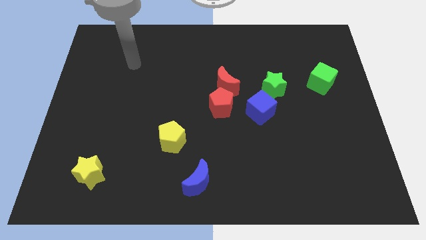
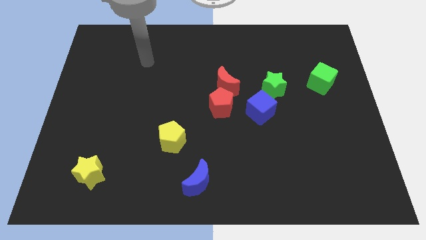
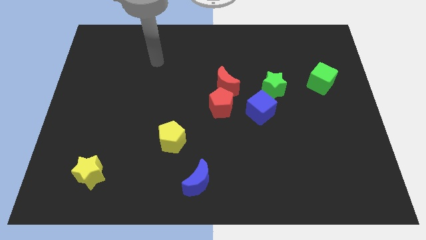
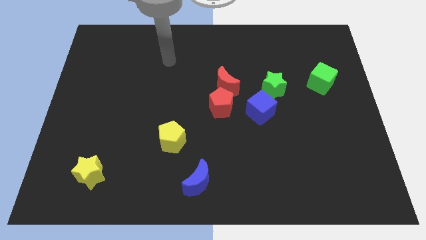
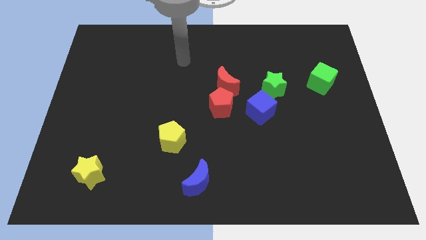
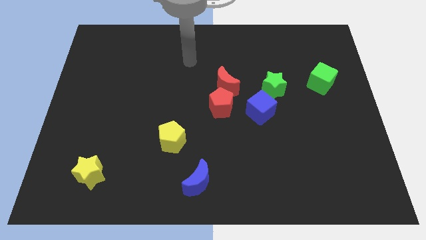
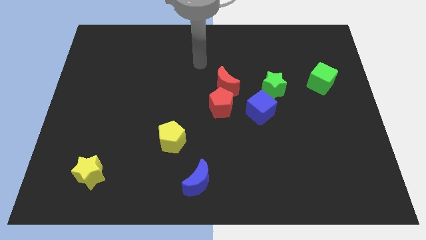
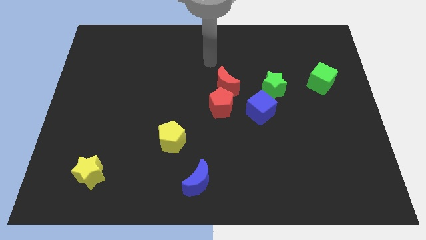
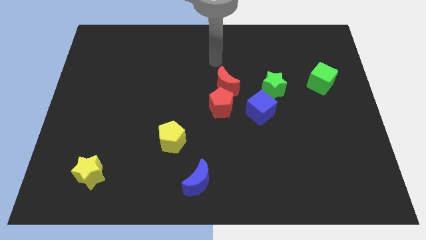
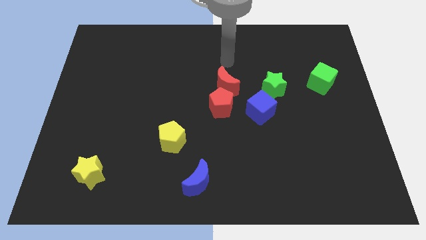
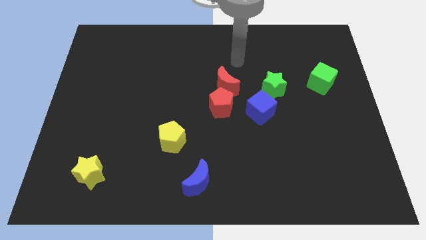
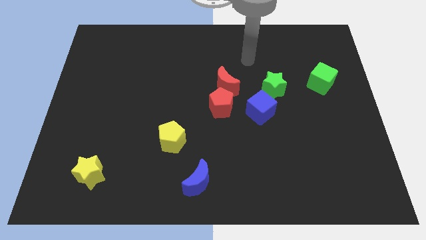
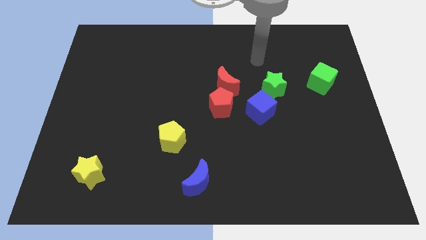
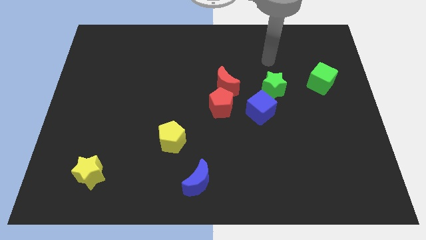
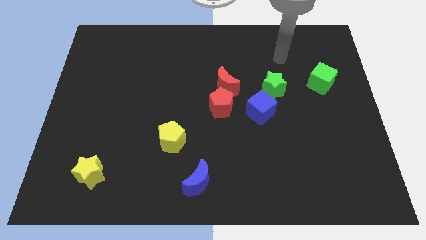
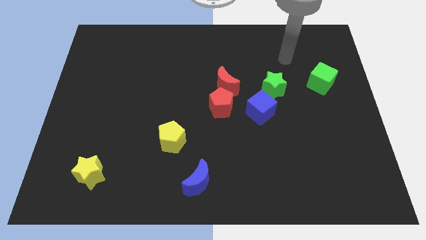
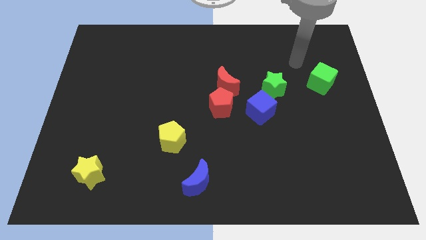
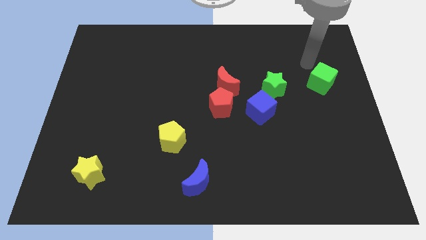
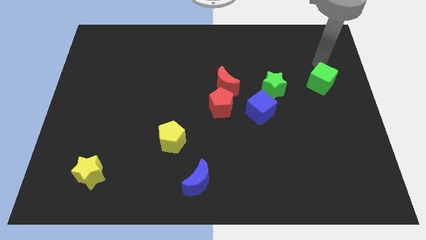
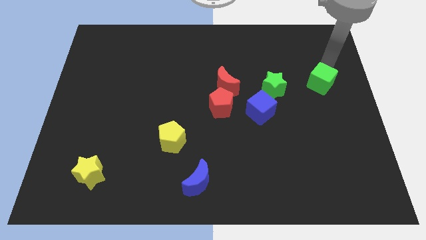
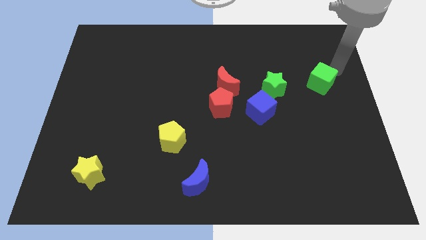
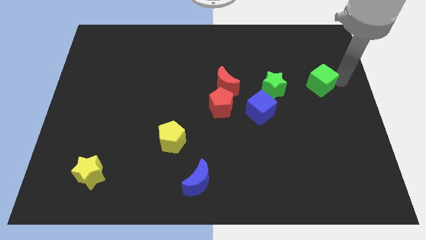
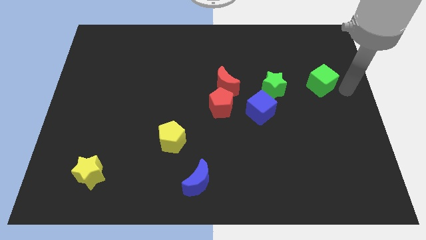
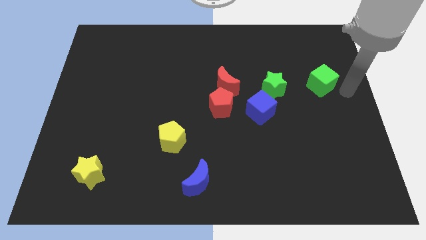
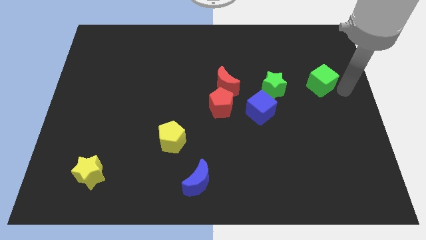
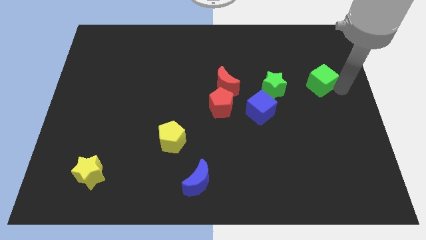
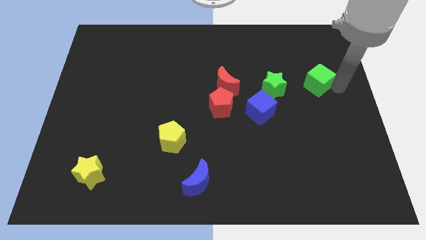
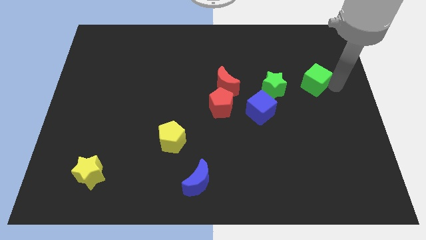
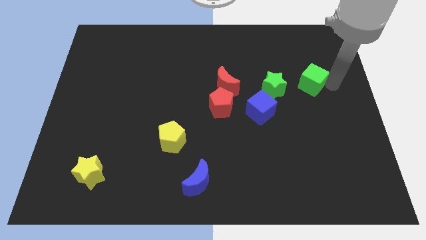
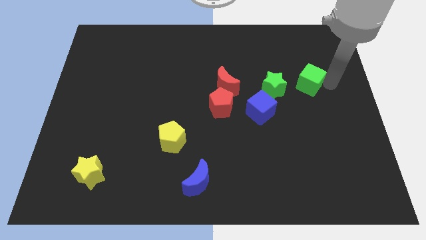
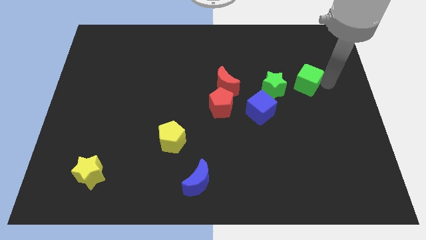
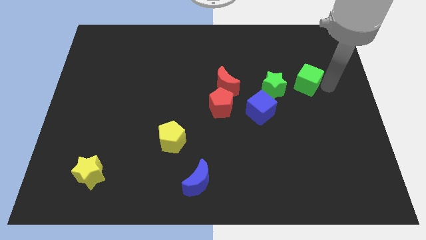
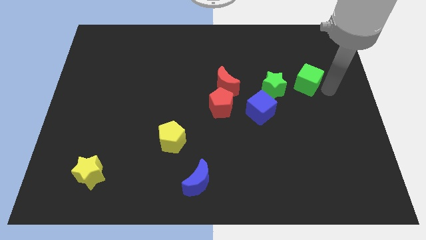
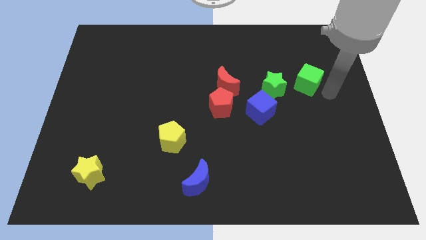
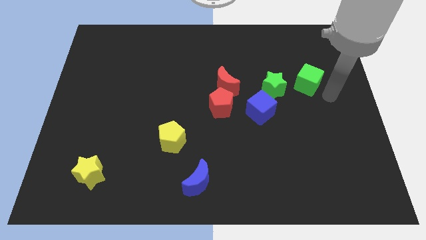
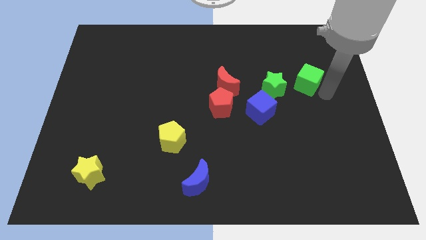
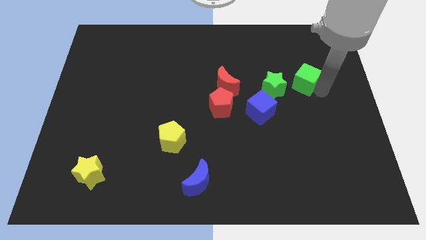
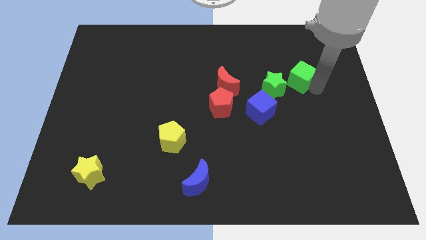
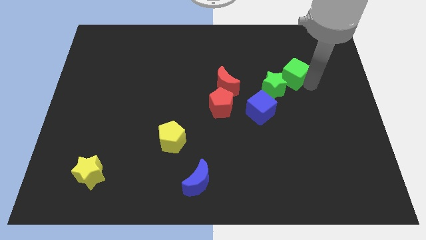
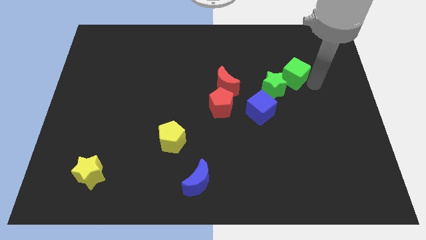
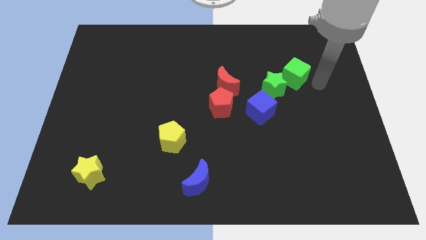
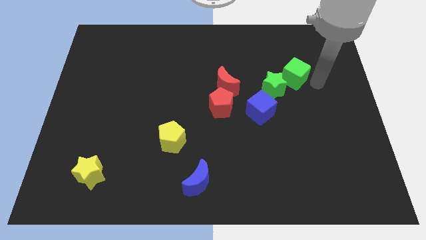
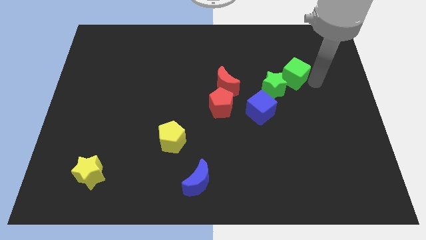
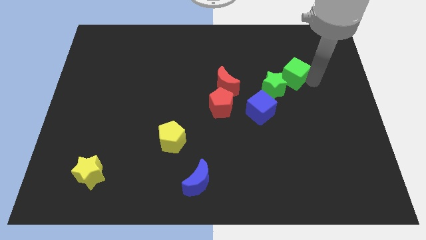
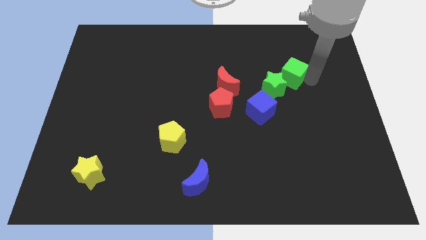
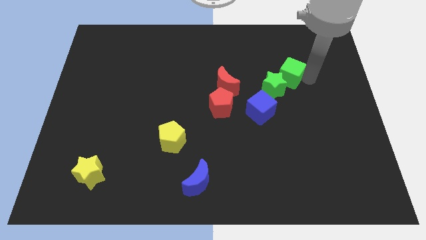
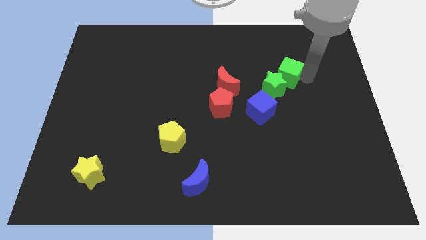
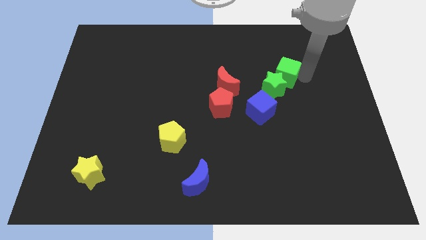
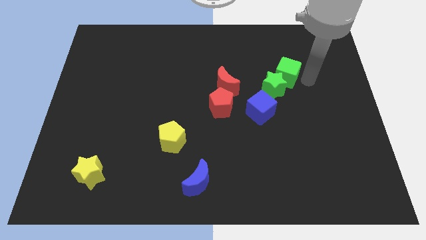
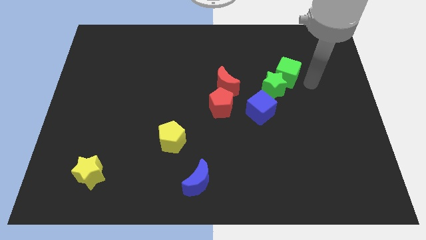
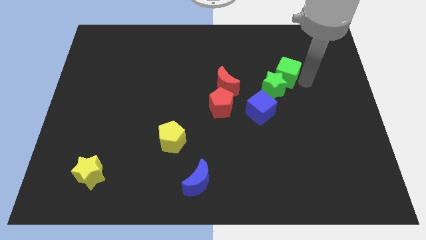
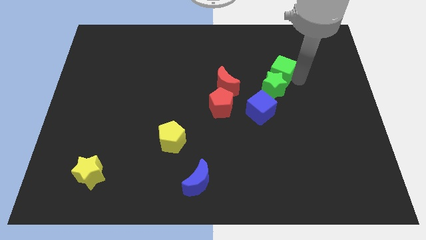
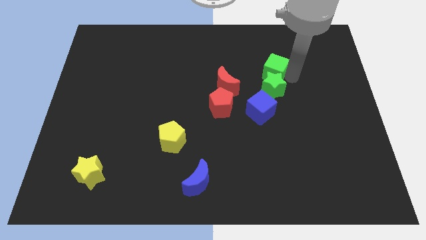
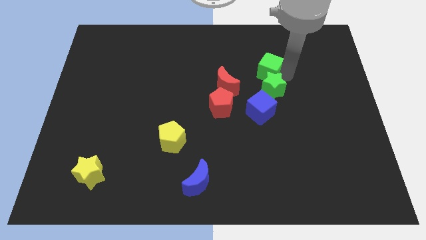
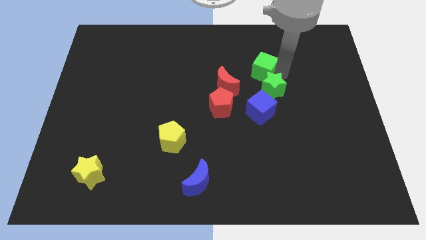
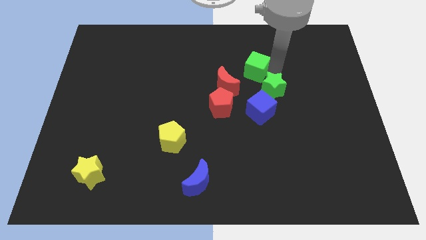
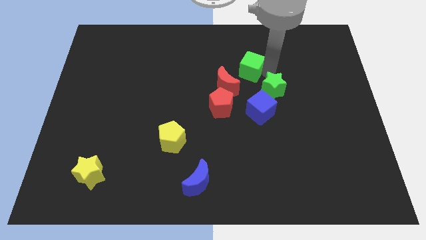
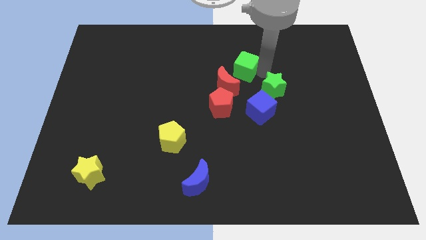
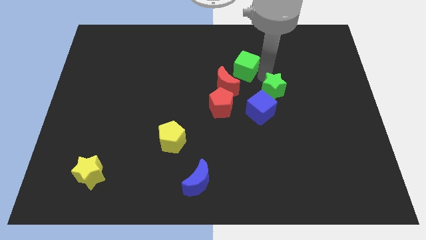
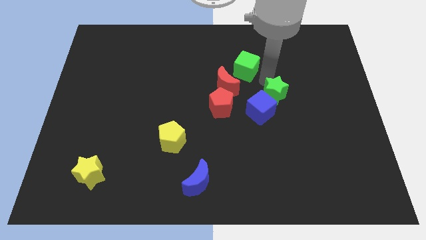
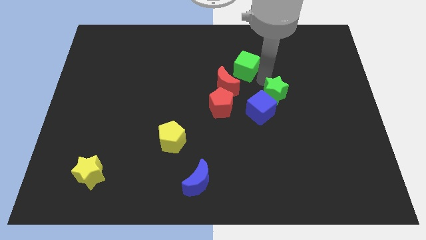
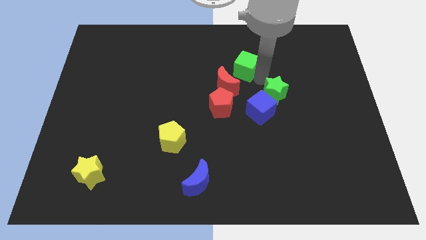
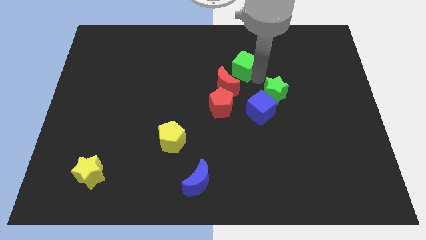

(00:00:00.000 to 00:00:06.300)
push the green cube to the top side of the red moon

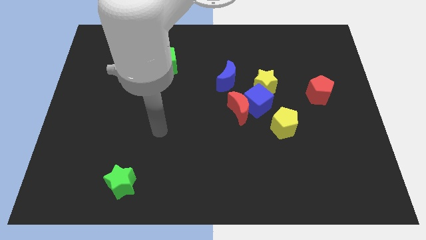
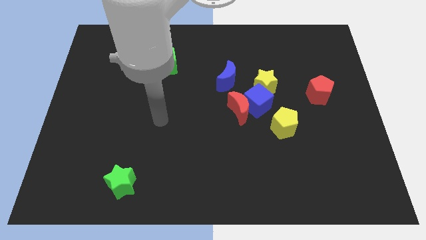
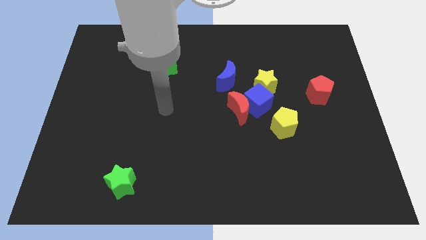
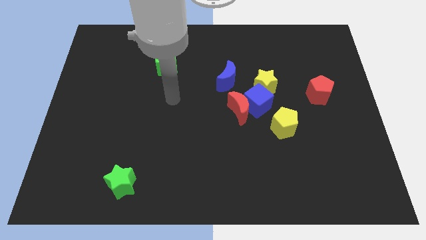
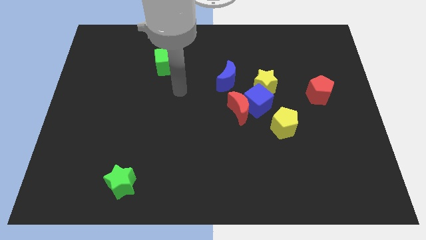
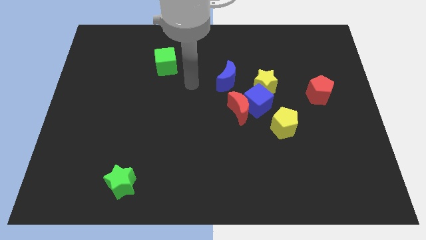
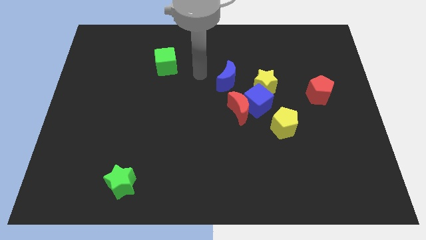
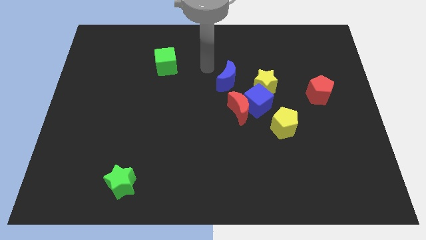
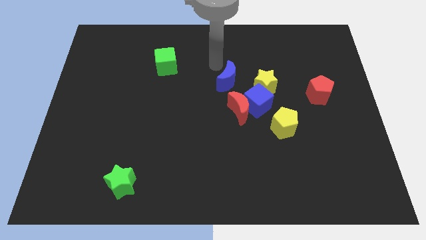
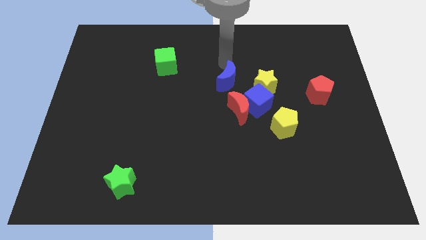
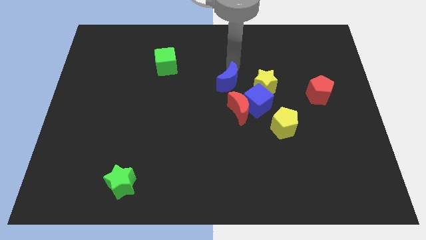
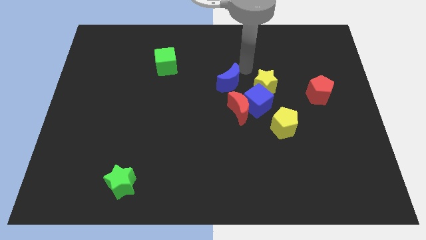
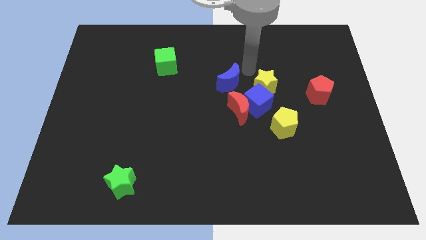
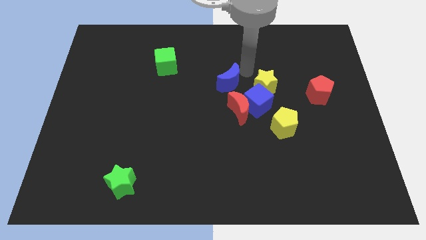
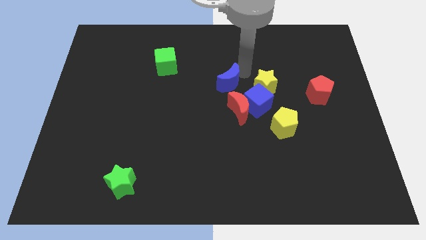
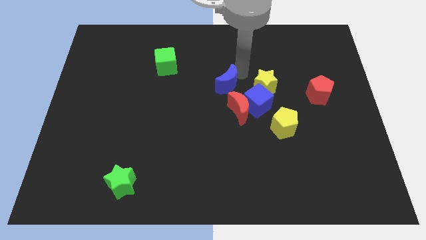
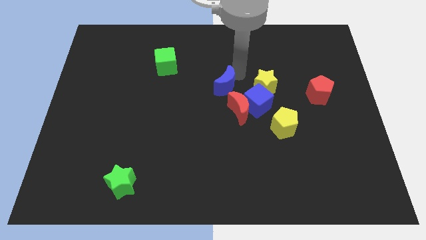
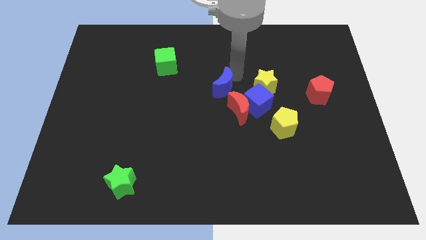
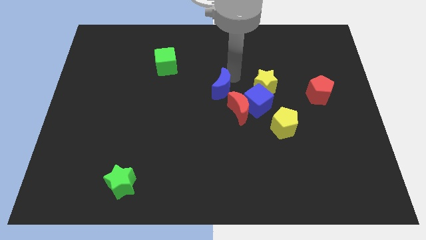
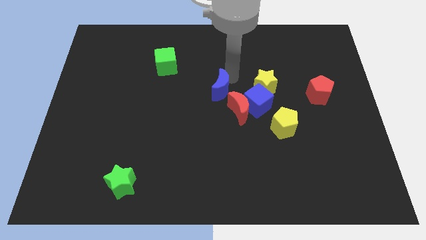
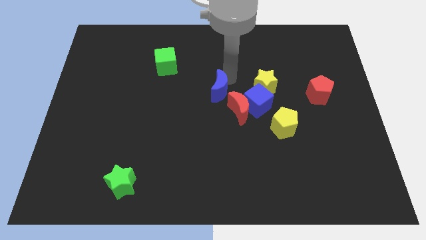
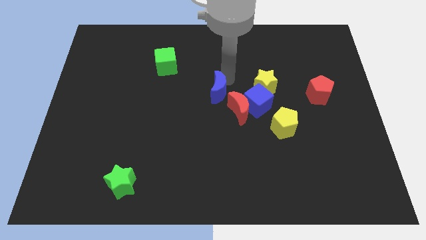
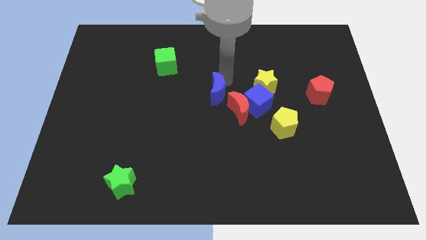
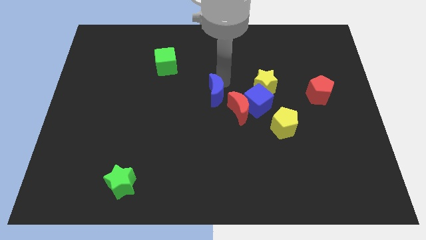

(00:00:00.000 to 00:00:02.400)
push the blue moon left of the red moon
